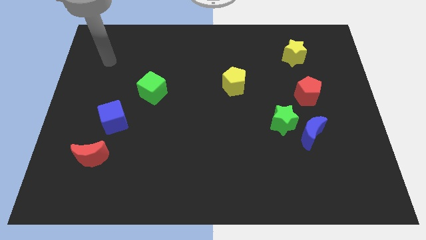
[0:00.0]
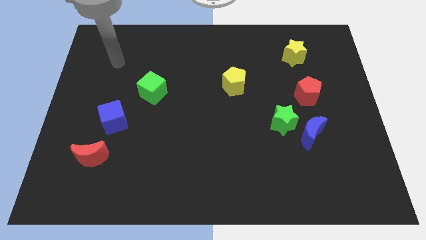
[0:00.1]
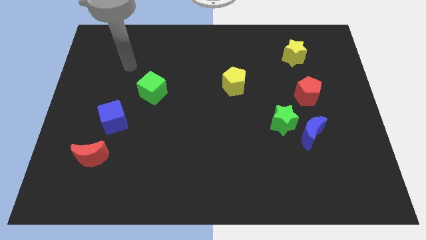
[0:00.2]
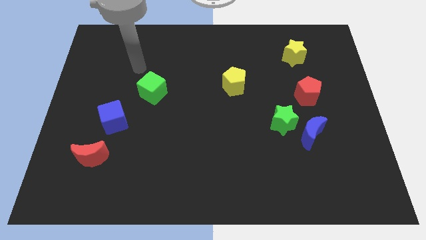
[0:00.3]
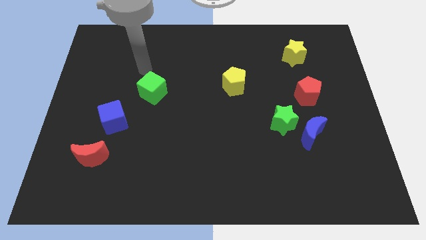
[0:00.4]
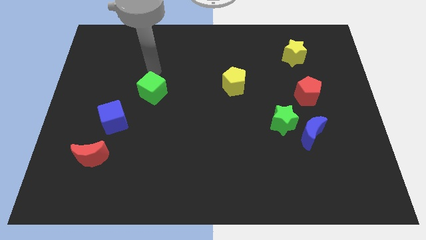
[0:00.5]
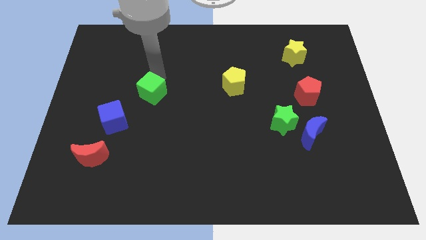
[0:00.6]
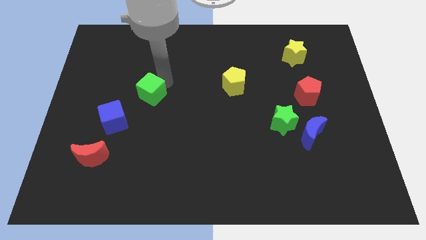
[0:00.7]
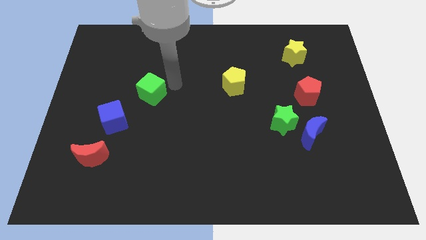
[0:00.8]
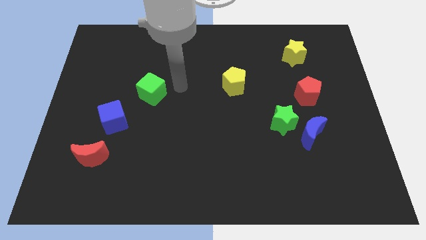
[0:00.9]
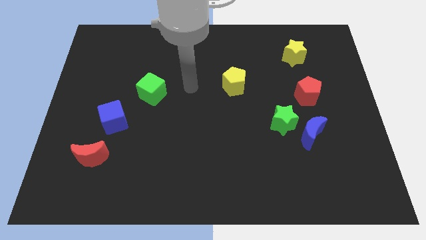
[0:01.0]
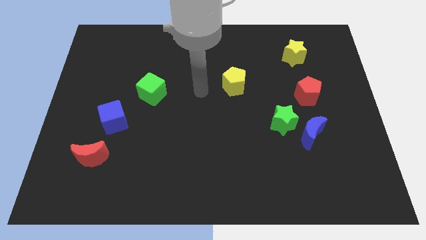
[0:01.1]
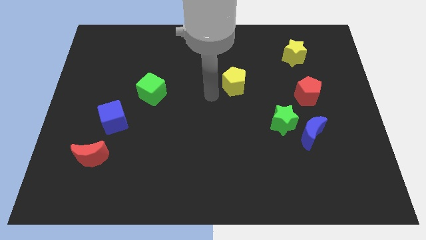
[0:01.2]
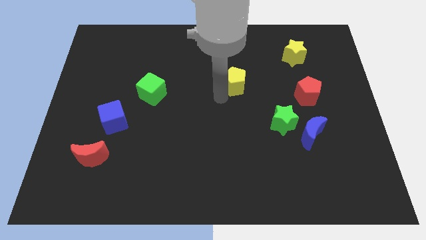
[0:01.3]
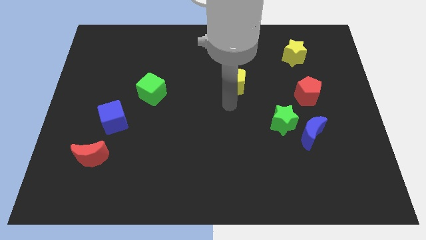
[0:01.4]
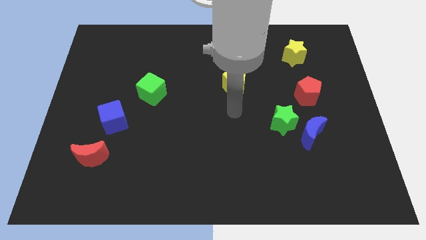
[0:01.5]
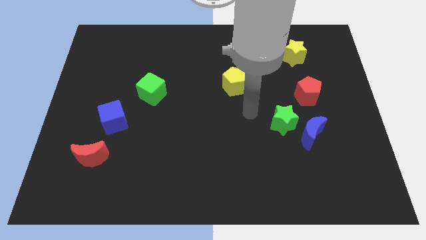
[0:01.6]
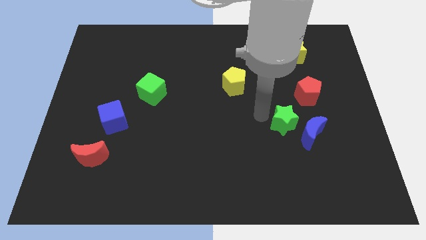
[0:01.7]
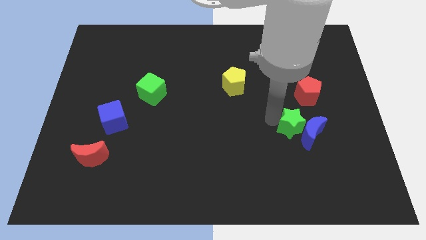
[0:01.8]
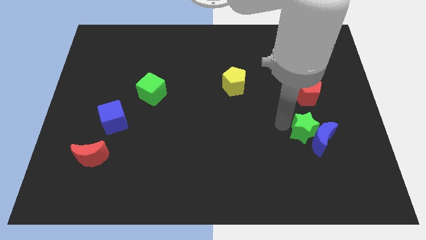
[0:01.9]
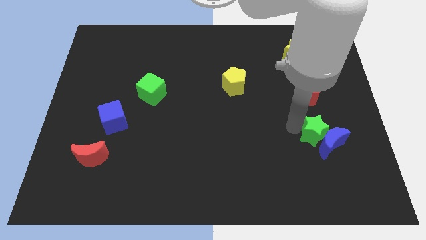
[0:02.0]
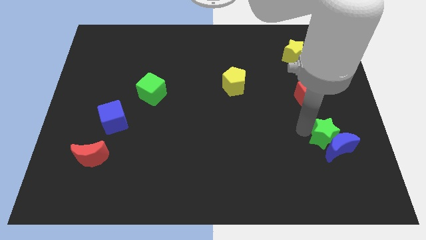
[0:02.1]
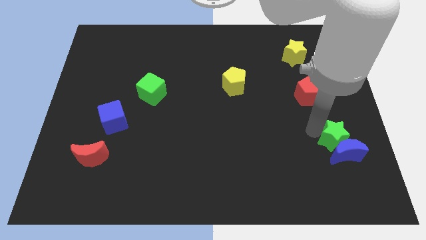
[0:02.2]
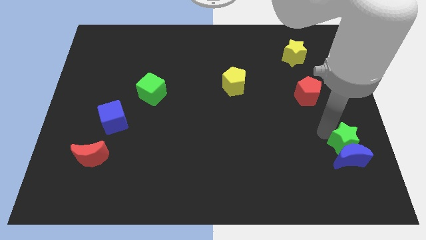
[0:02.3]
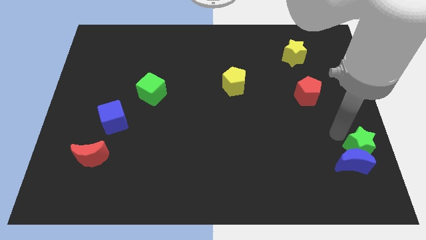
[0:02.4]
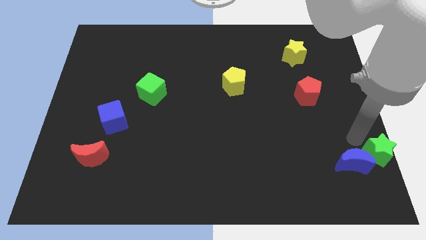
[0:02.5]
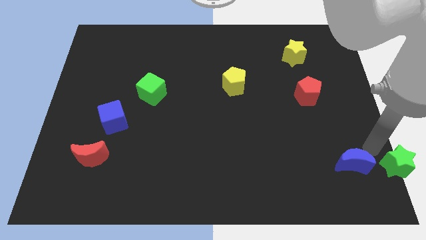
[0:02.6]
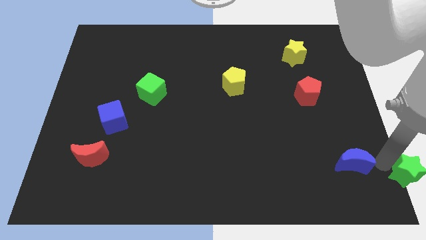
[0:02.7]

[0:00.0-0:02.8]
move the blue moon away from the green star

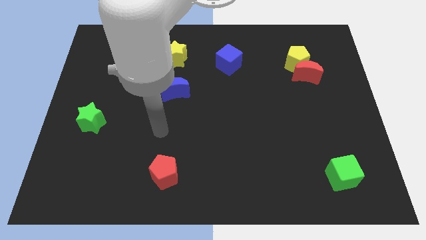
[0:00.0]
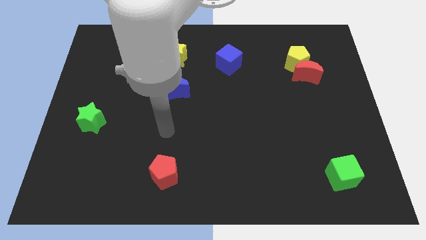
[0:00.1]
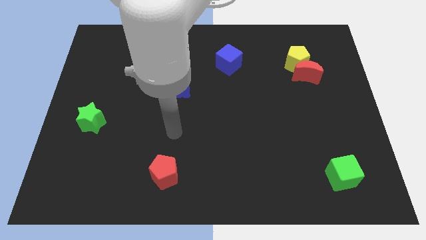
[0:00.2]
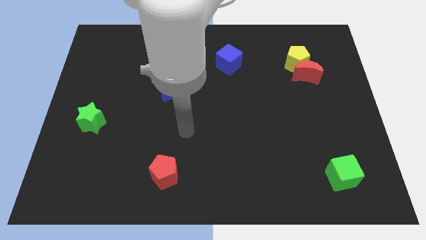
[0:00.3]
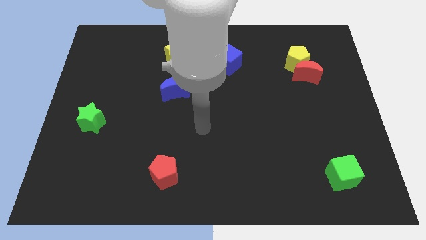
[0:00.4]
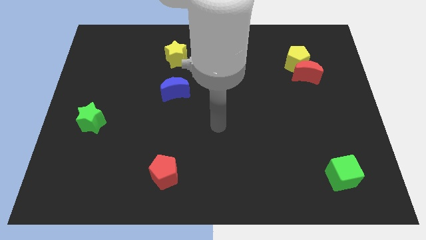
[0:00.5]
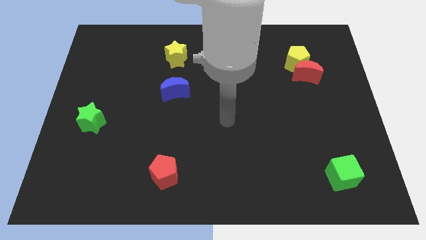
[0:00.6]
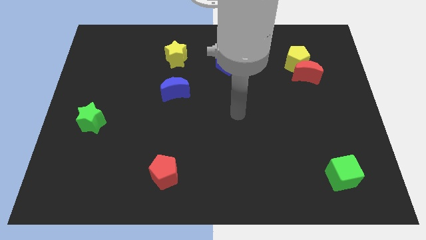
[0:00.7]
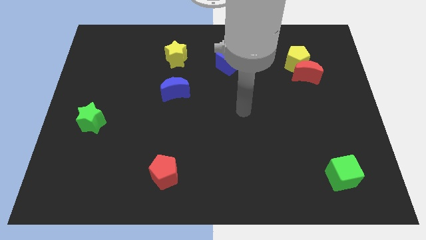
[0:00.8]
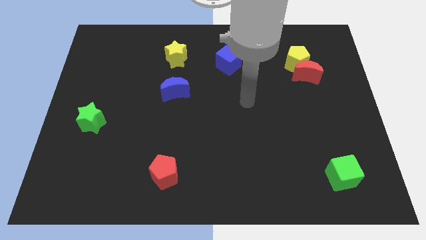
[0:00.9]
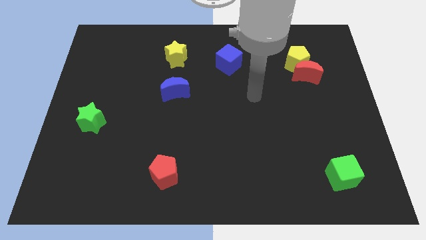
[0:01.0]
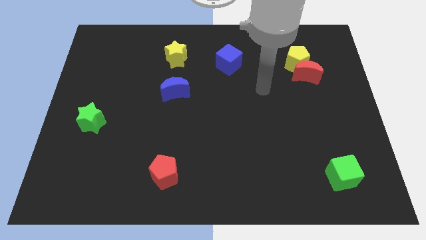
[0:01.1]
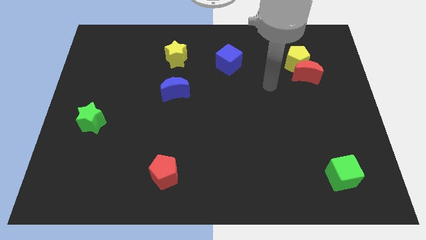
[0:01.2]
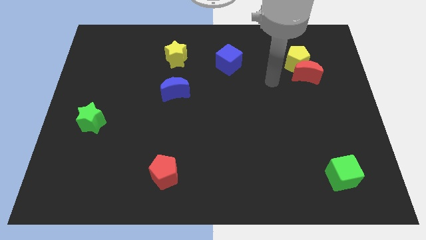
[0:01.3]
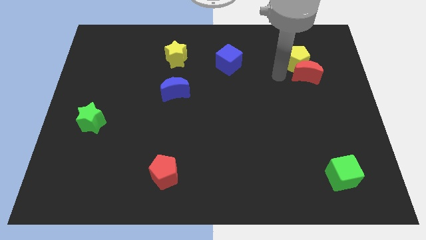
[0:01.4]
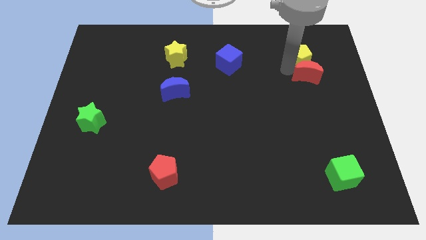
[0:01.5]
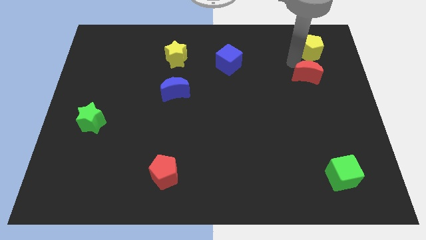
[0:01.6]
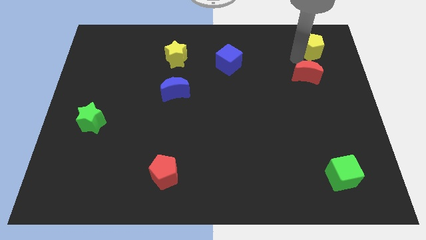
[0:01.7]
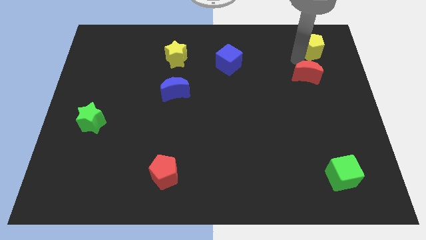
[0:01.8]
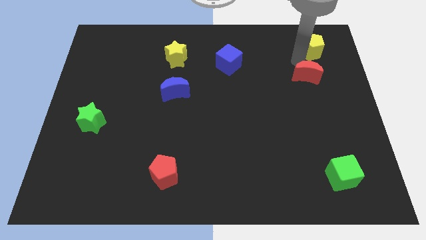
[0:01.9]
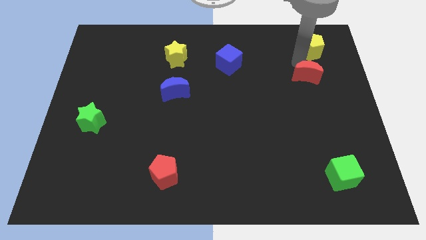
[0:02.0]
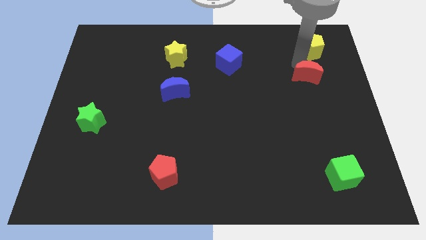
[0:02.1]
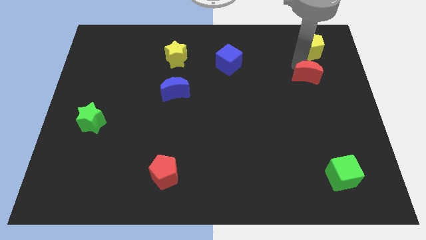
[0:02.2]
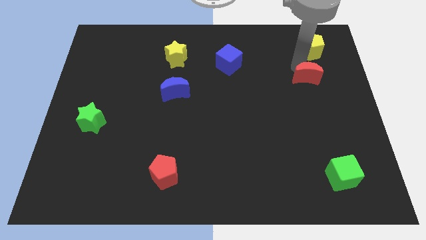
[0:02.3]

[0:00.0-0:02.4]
separate the red moon from the yellow pentagon

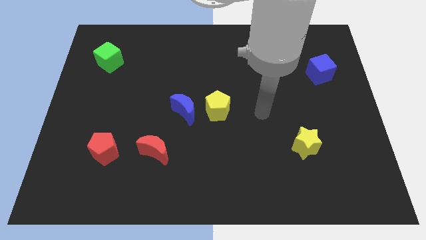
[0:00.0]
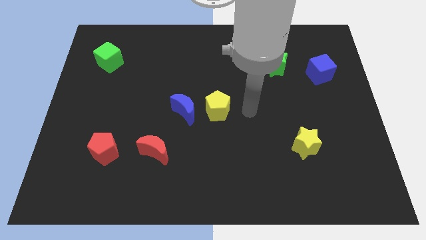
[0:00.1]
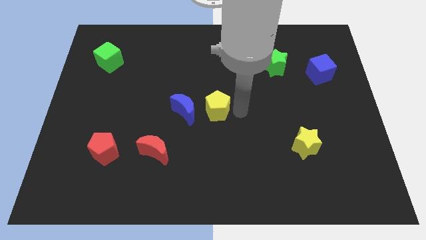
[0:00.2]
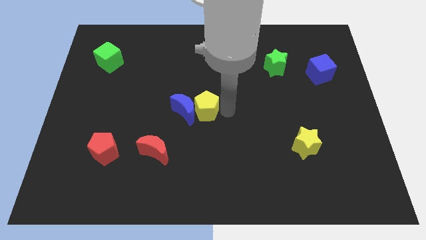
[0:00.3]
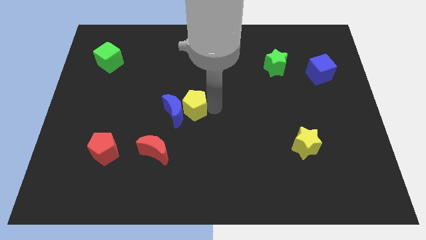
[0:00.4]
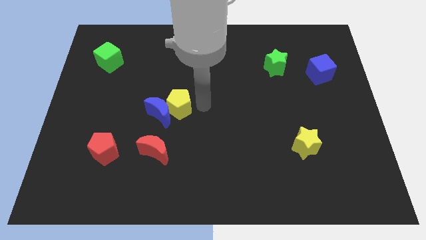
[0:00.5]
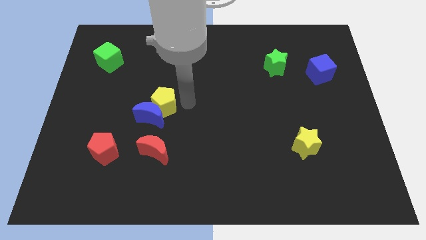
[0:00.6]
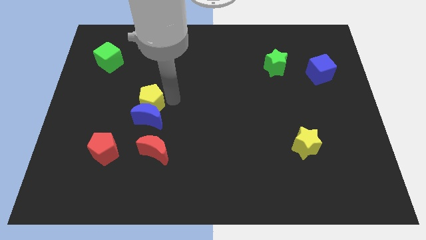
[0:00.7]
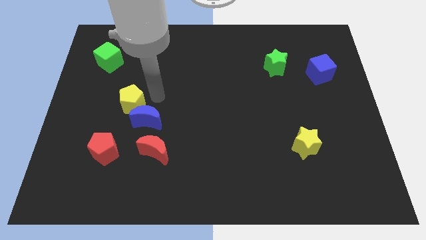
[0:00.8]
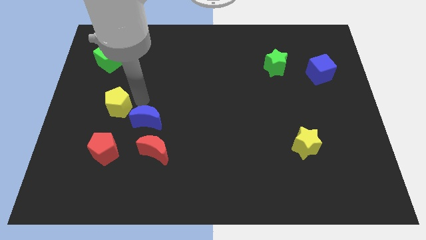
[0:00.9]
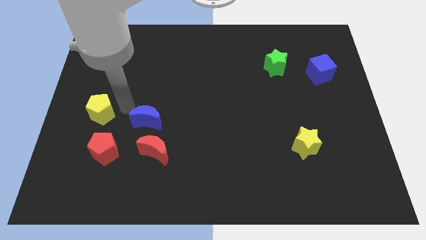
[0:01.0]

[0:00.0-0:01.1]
separate the blue moon from the yellow pentagon

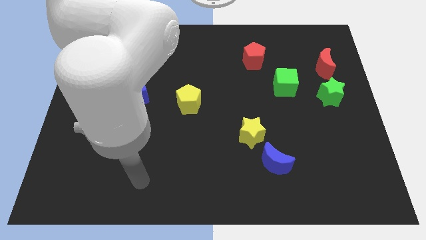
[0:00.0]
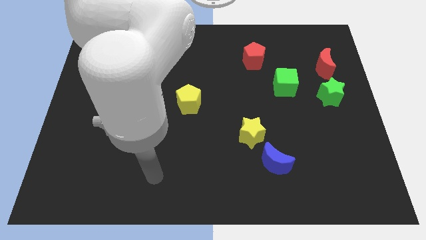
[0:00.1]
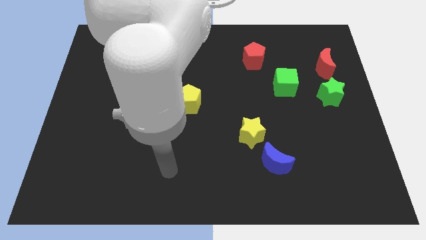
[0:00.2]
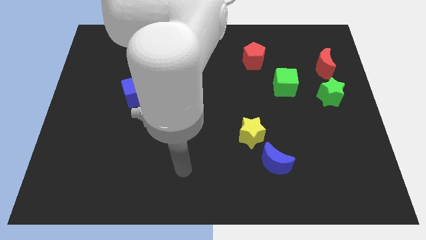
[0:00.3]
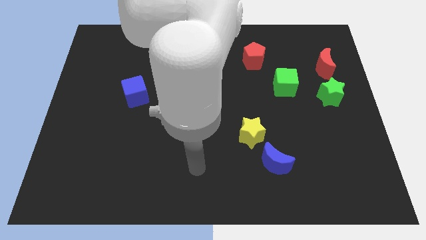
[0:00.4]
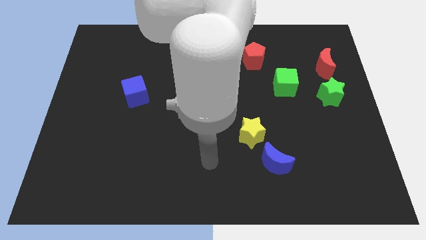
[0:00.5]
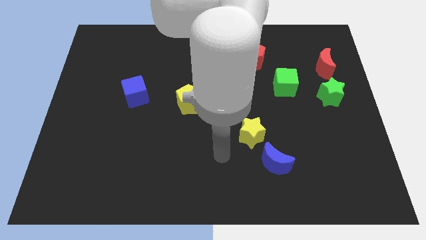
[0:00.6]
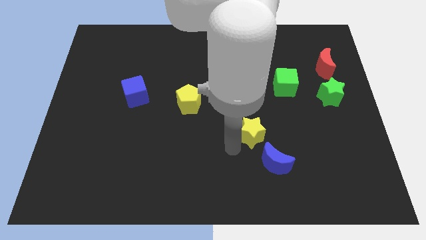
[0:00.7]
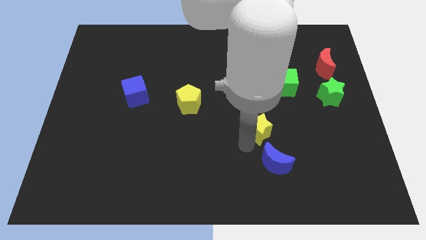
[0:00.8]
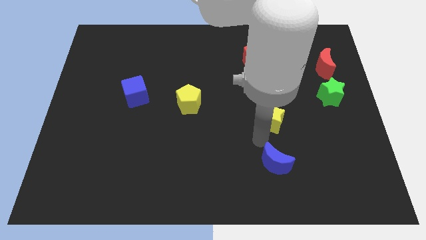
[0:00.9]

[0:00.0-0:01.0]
move the blue moon away from the yellow star

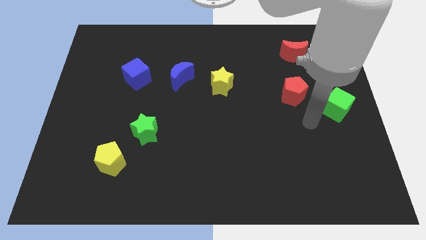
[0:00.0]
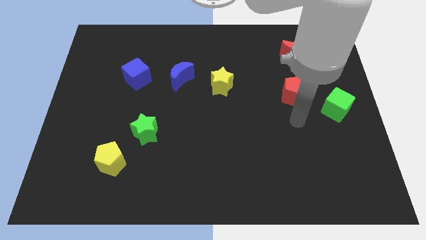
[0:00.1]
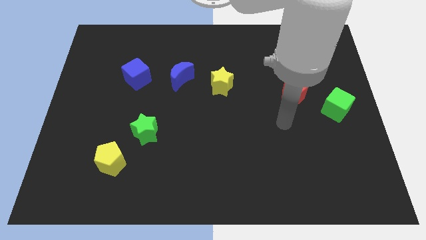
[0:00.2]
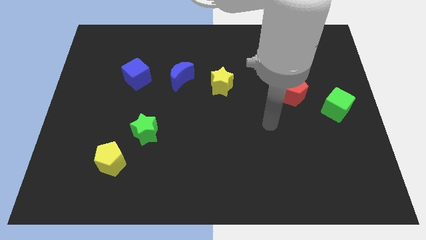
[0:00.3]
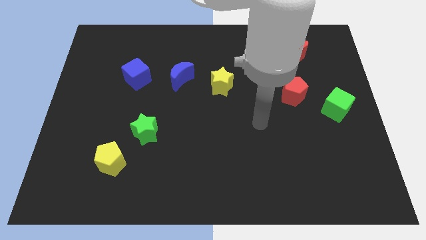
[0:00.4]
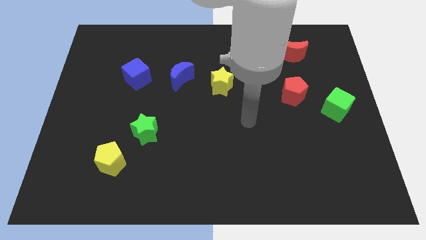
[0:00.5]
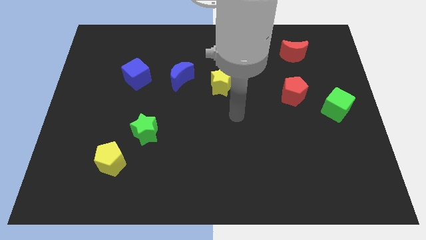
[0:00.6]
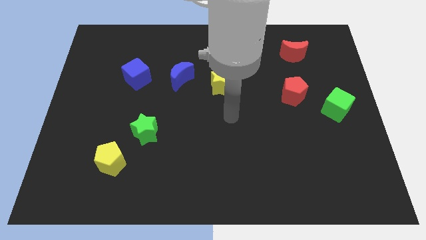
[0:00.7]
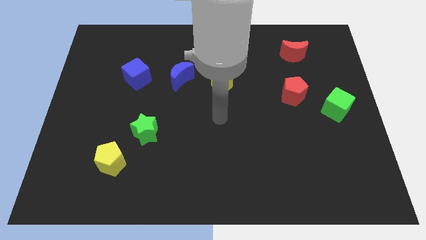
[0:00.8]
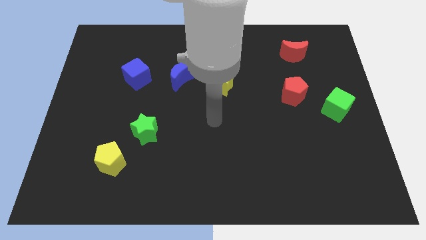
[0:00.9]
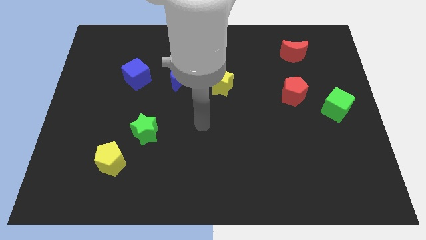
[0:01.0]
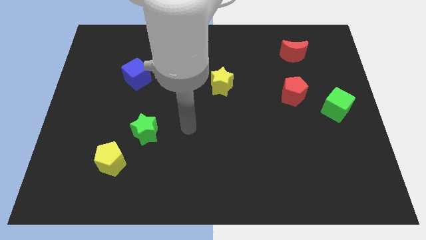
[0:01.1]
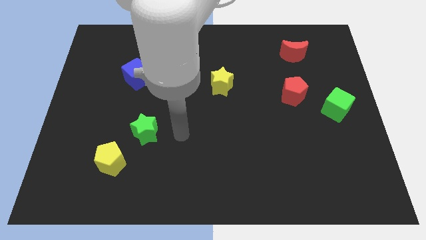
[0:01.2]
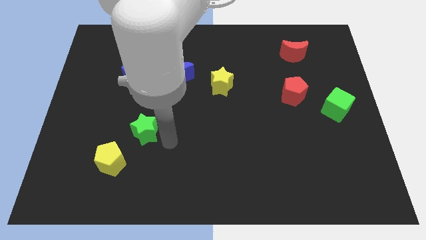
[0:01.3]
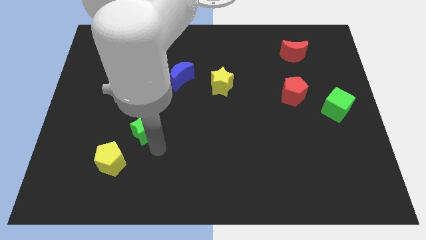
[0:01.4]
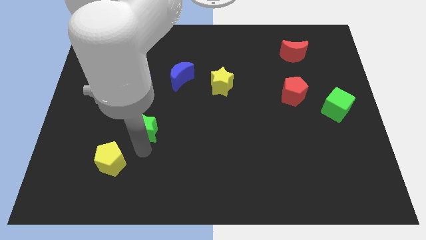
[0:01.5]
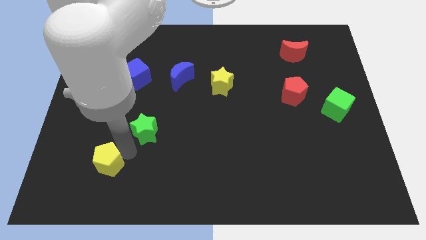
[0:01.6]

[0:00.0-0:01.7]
pull the green star apart from the yellow pentagon

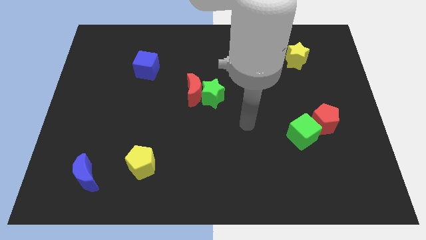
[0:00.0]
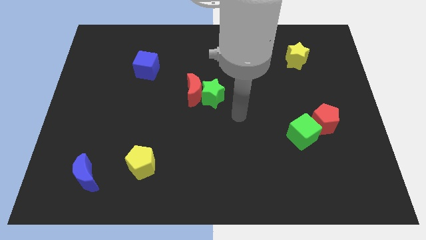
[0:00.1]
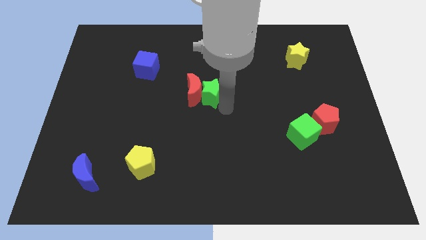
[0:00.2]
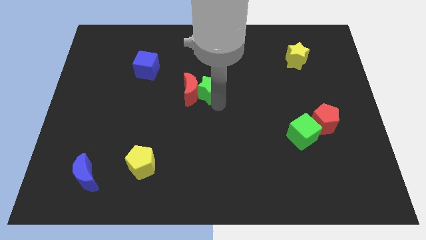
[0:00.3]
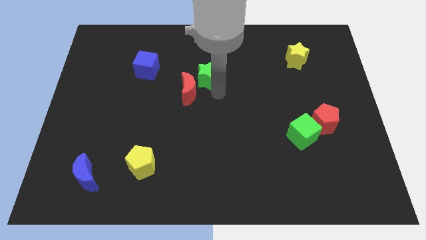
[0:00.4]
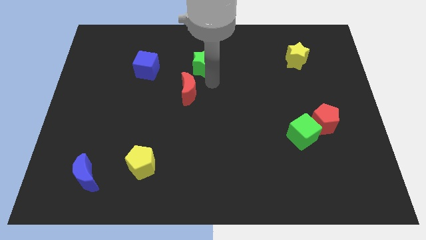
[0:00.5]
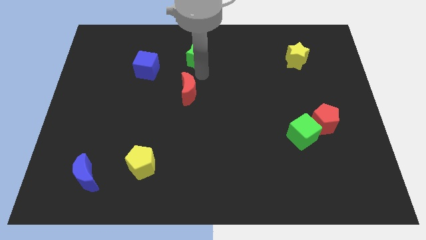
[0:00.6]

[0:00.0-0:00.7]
pull the red moon apart from the green star
